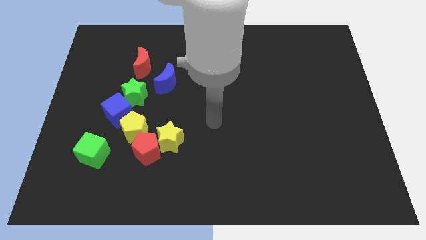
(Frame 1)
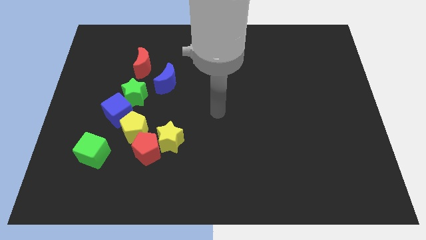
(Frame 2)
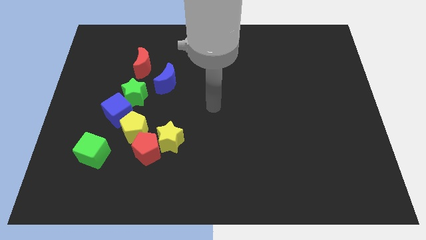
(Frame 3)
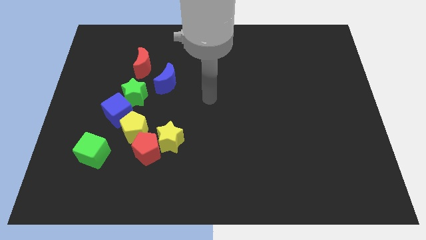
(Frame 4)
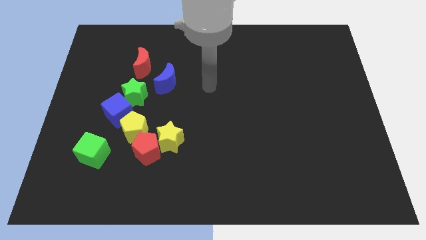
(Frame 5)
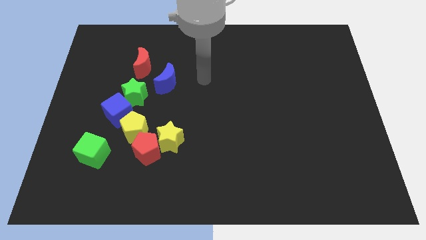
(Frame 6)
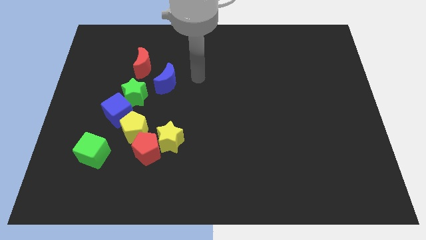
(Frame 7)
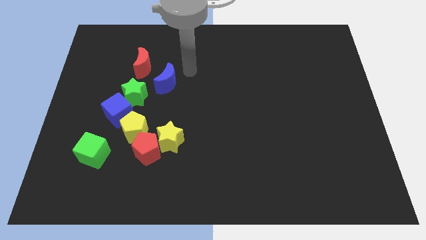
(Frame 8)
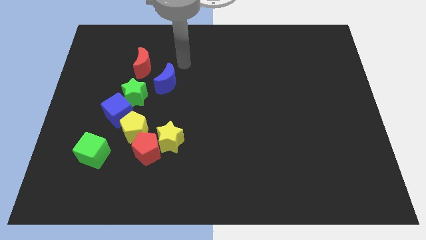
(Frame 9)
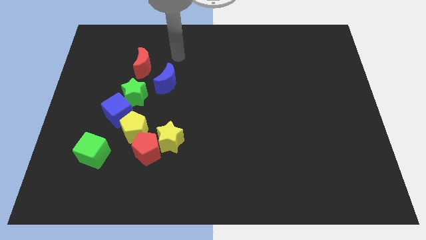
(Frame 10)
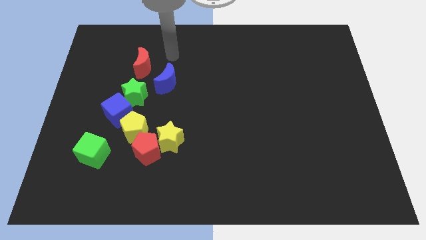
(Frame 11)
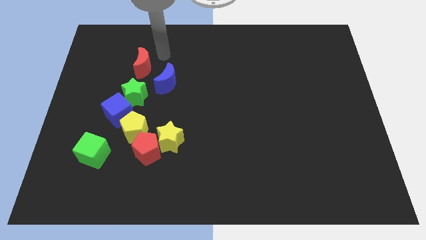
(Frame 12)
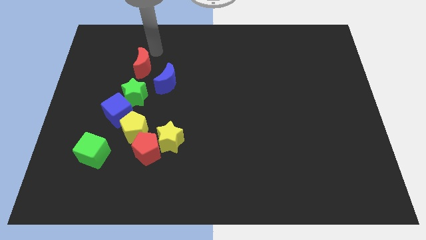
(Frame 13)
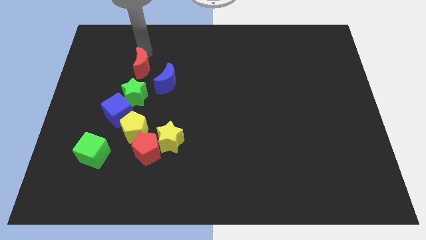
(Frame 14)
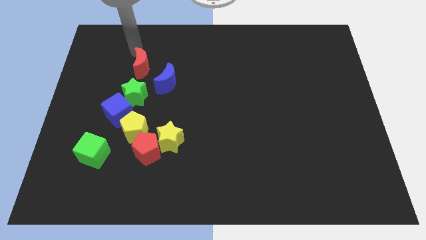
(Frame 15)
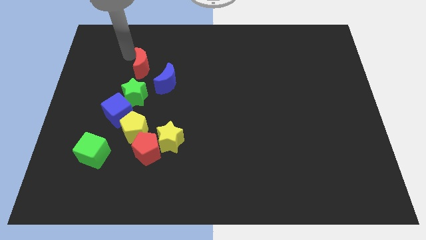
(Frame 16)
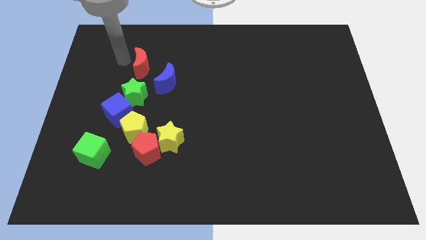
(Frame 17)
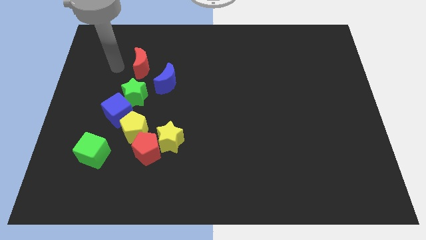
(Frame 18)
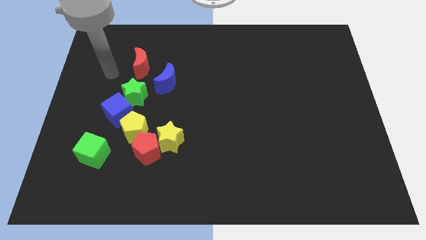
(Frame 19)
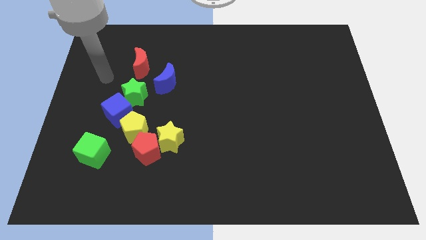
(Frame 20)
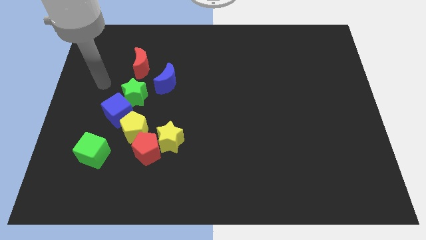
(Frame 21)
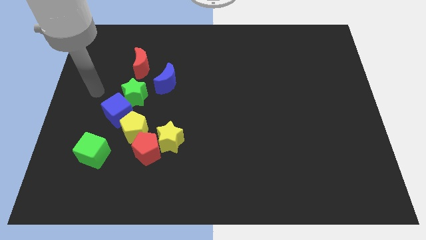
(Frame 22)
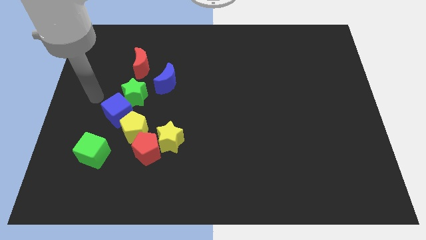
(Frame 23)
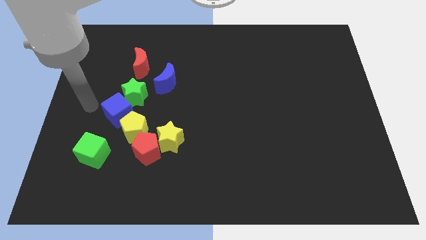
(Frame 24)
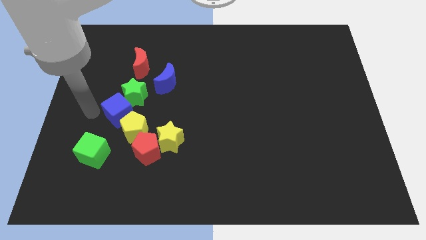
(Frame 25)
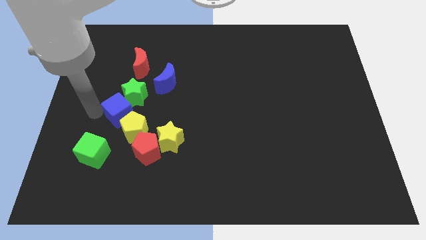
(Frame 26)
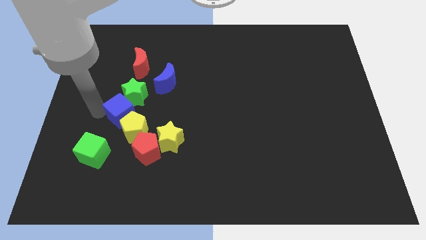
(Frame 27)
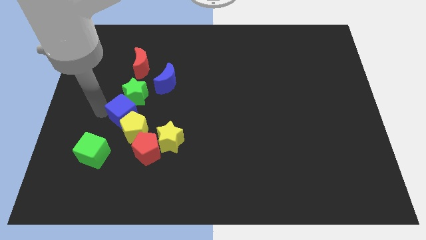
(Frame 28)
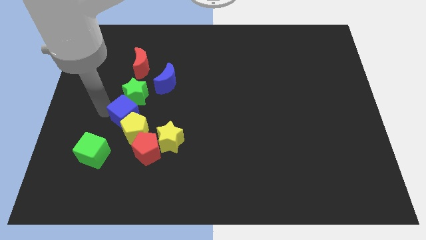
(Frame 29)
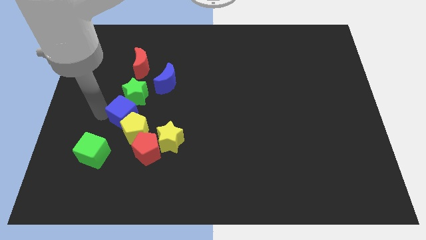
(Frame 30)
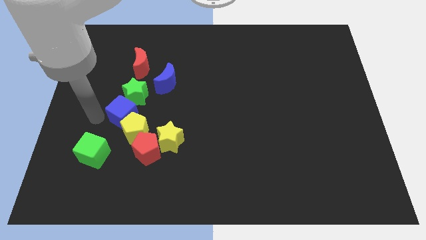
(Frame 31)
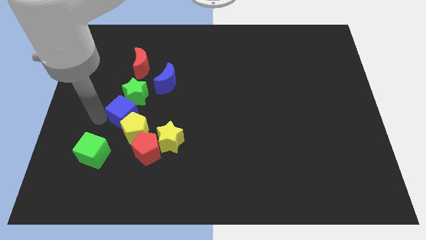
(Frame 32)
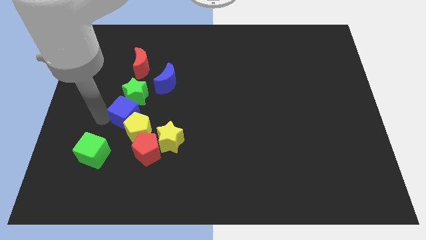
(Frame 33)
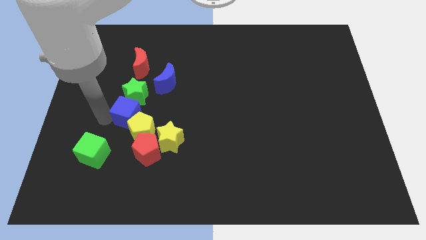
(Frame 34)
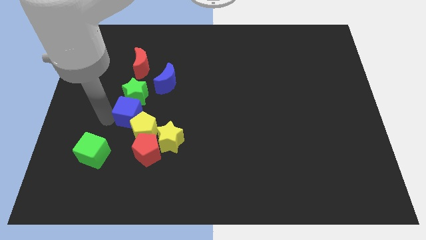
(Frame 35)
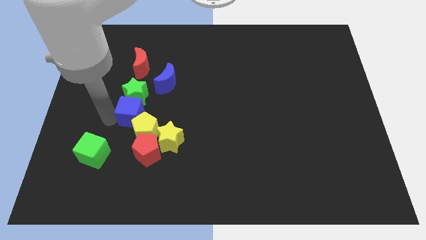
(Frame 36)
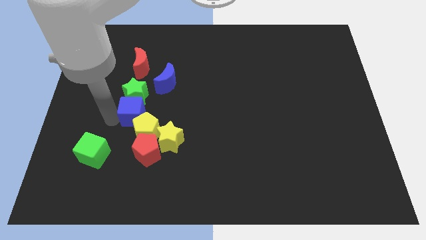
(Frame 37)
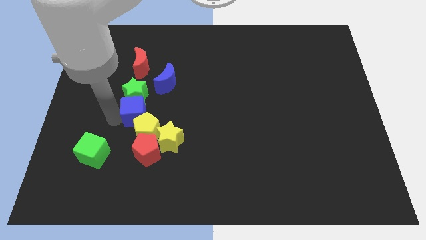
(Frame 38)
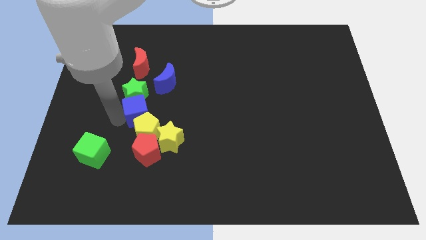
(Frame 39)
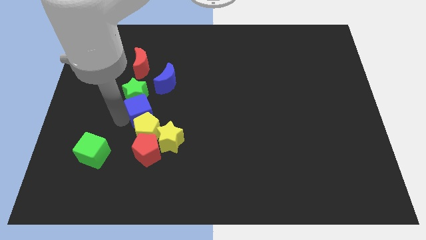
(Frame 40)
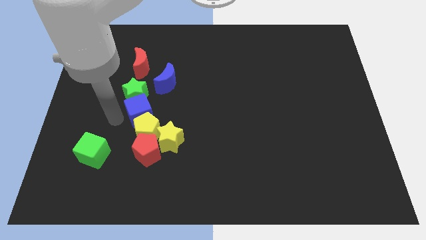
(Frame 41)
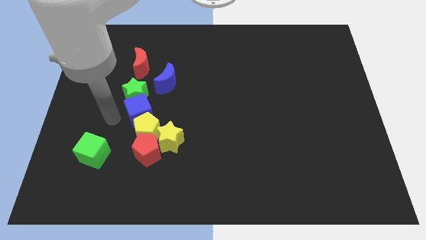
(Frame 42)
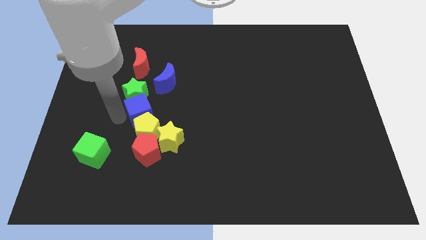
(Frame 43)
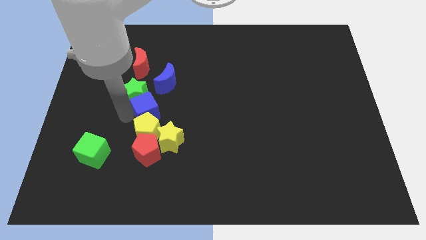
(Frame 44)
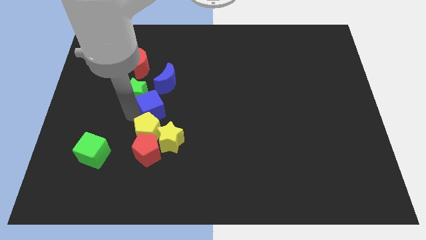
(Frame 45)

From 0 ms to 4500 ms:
slightly slide the blue cube right

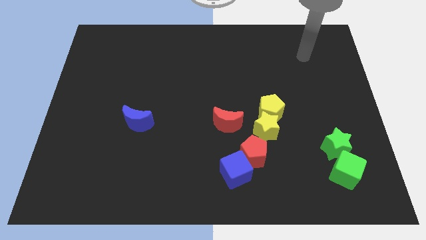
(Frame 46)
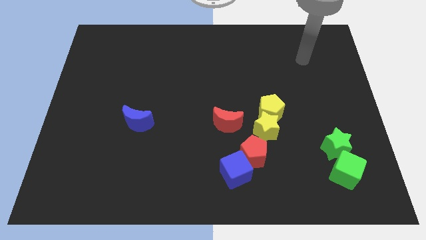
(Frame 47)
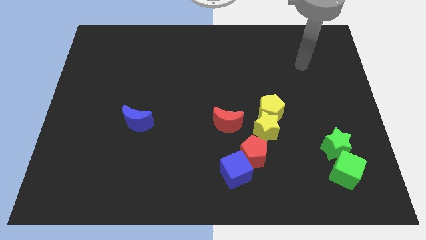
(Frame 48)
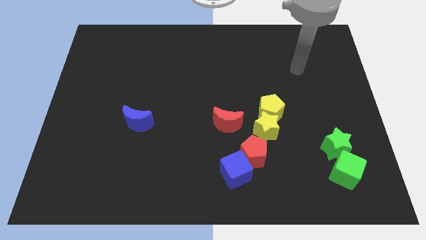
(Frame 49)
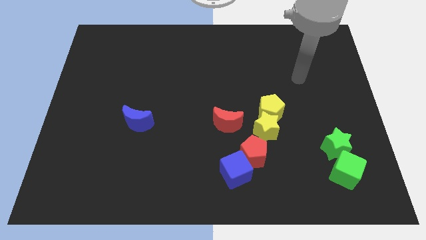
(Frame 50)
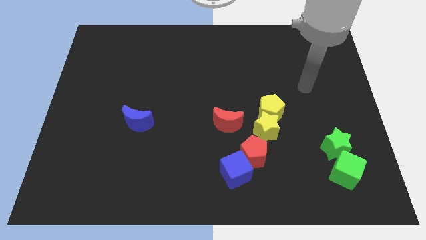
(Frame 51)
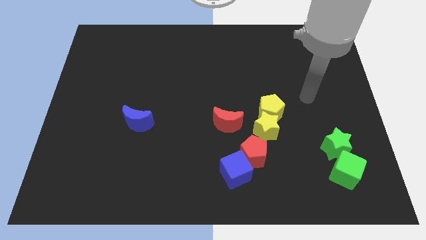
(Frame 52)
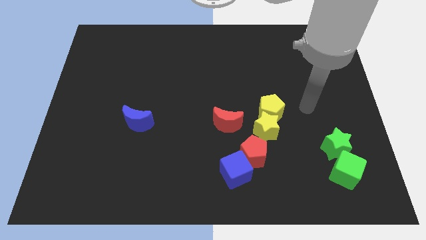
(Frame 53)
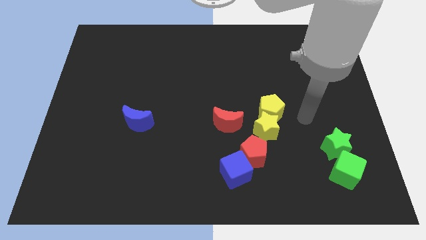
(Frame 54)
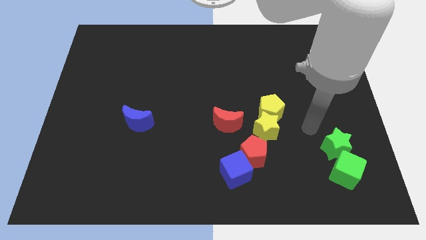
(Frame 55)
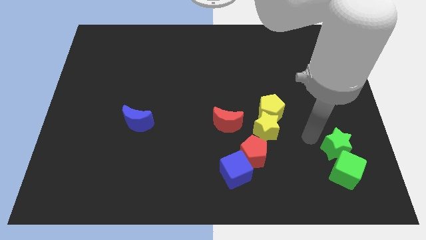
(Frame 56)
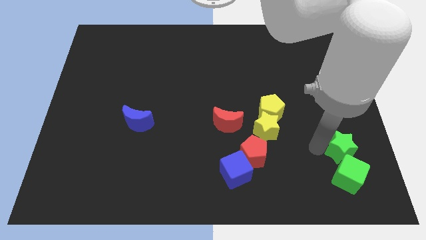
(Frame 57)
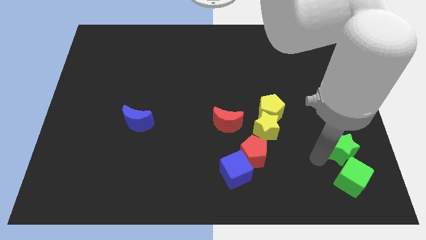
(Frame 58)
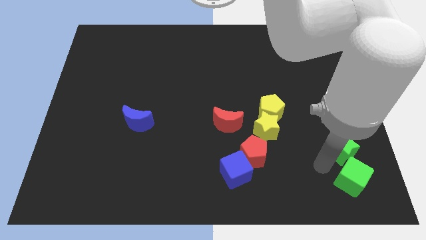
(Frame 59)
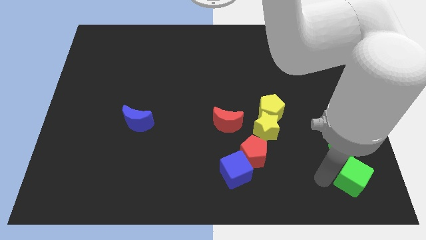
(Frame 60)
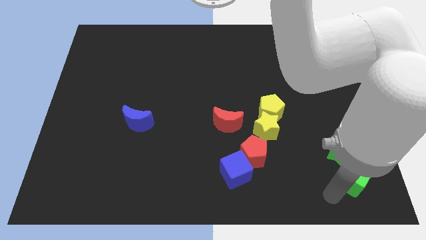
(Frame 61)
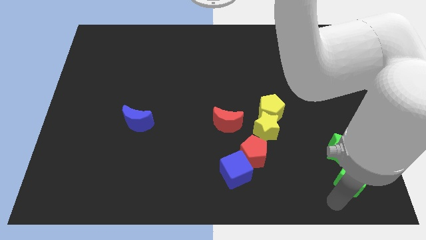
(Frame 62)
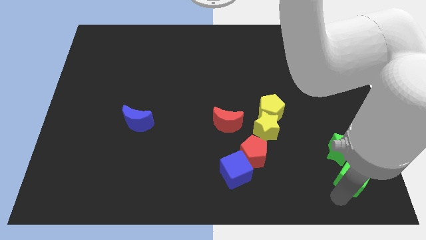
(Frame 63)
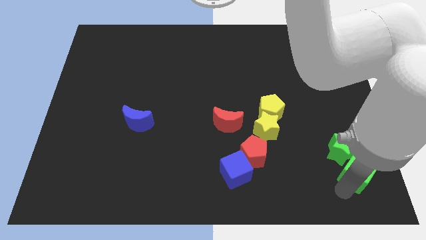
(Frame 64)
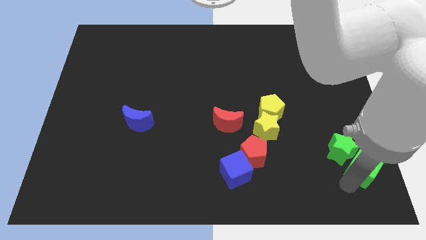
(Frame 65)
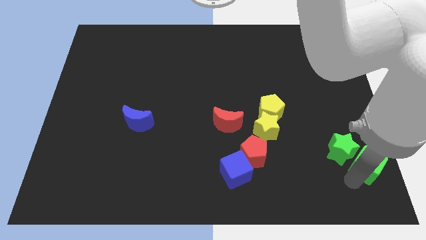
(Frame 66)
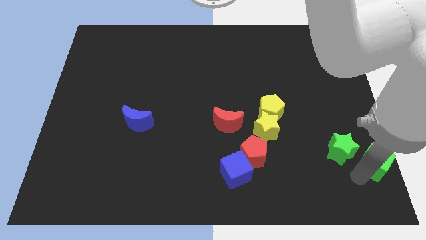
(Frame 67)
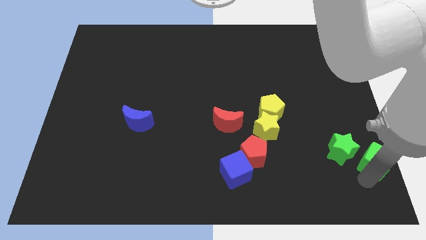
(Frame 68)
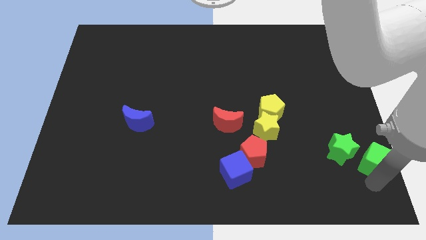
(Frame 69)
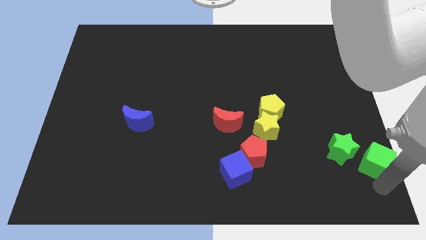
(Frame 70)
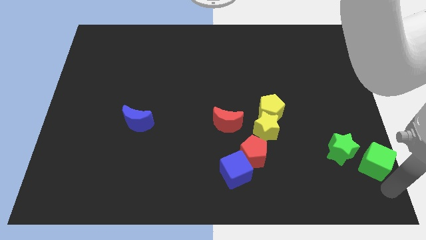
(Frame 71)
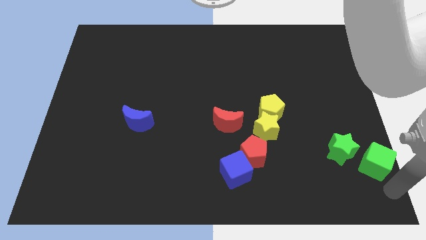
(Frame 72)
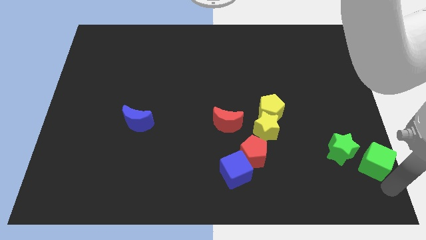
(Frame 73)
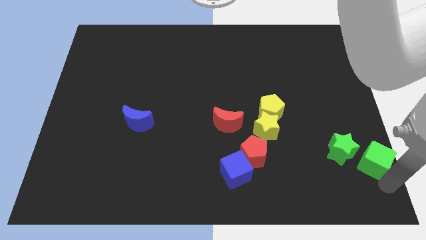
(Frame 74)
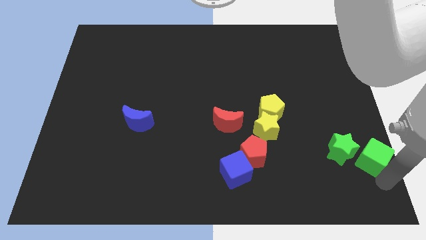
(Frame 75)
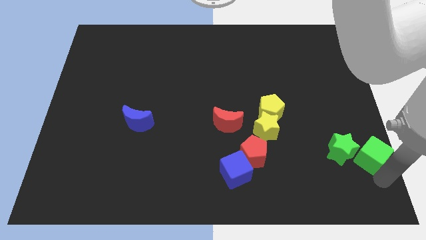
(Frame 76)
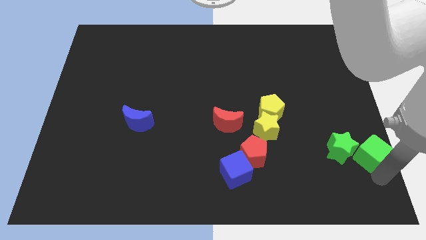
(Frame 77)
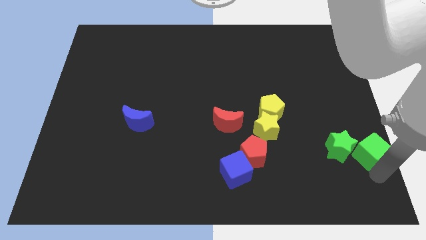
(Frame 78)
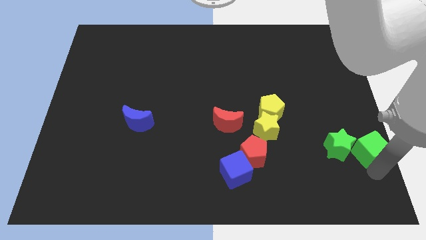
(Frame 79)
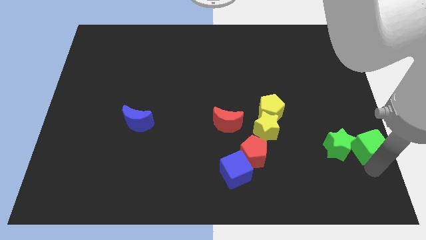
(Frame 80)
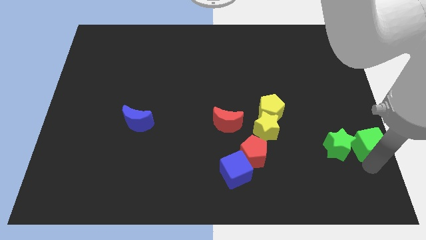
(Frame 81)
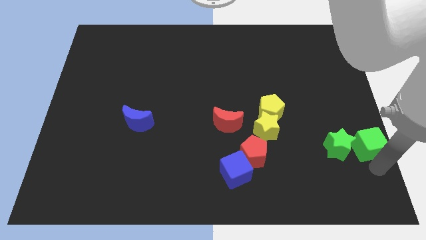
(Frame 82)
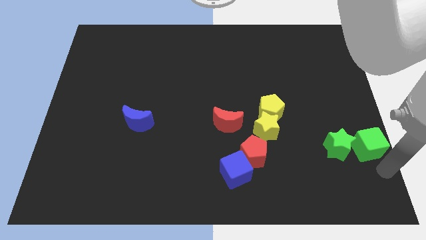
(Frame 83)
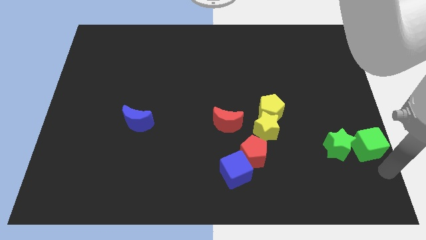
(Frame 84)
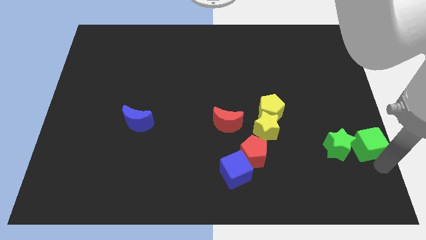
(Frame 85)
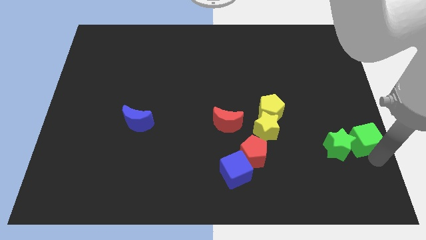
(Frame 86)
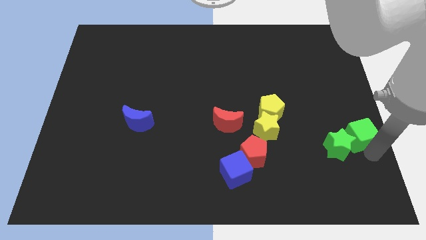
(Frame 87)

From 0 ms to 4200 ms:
slightly move the green cube up
